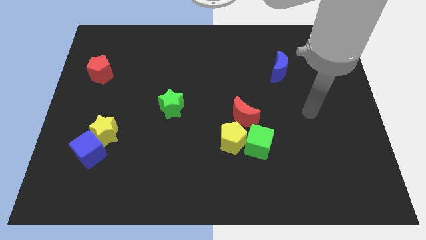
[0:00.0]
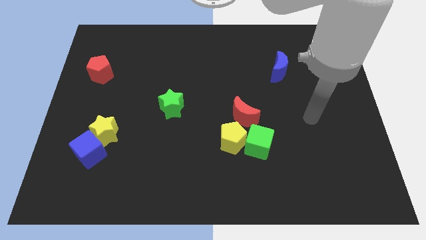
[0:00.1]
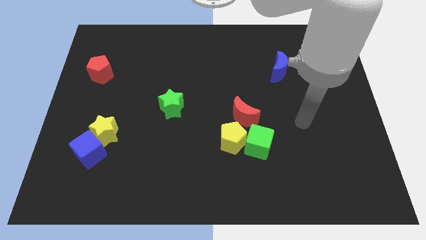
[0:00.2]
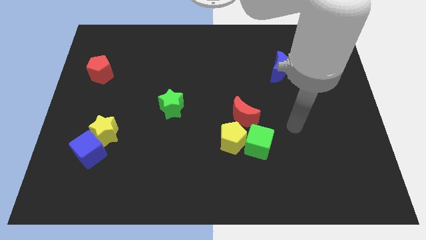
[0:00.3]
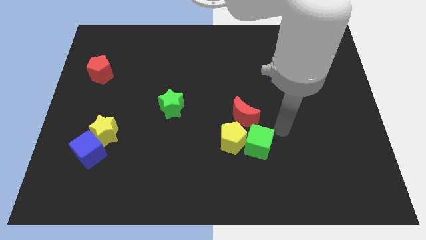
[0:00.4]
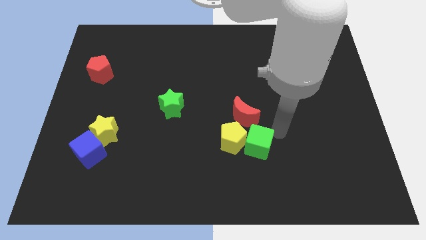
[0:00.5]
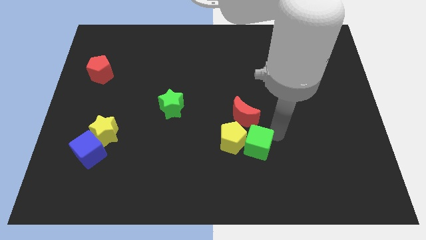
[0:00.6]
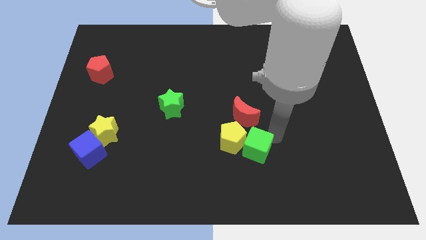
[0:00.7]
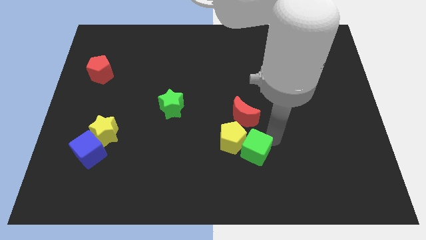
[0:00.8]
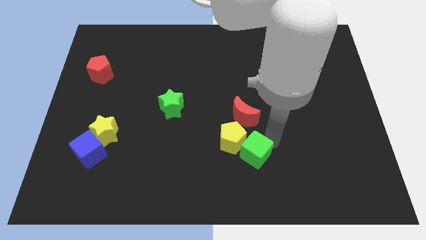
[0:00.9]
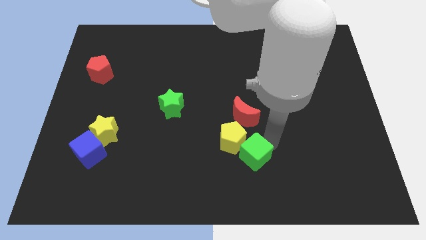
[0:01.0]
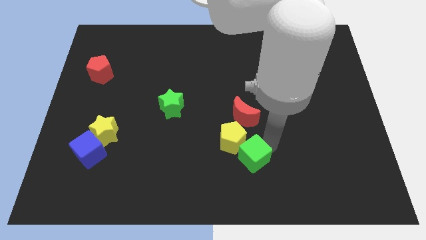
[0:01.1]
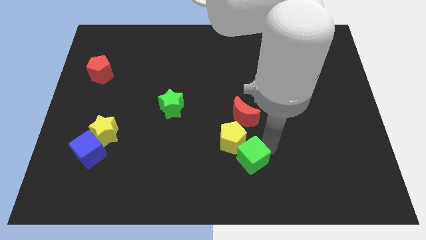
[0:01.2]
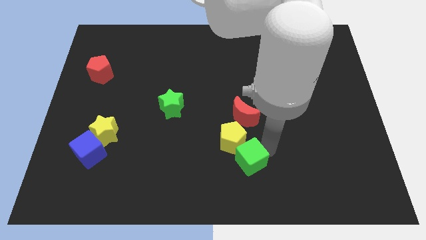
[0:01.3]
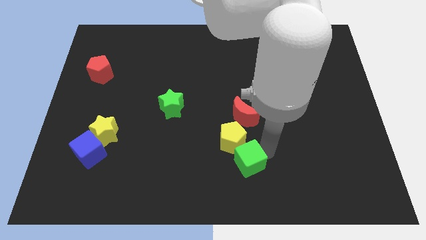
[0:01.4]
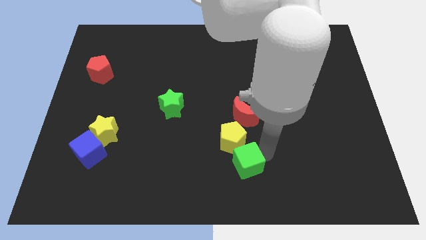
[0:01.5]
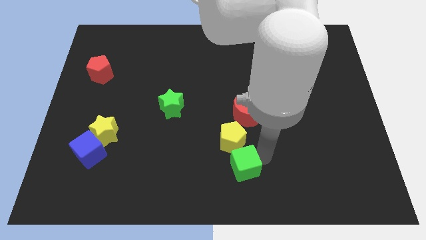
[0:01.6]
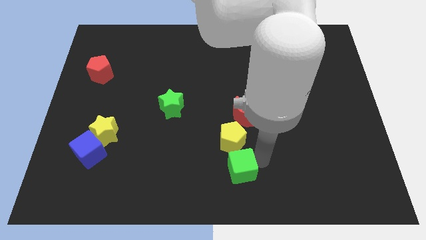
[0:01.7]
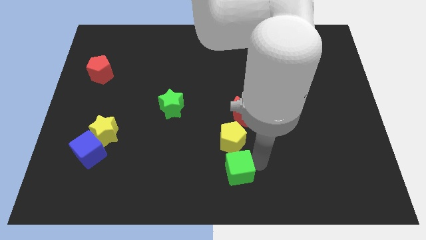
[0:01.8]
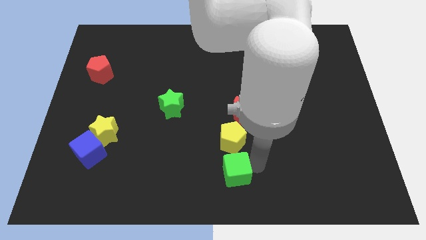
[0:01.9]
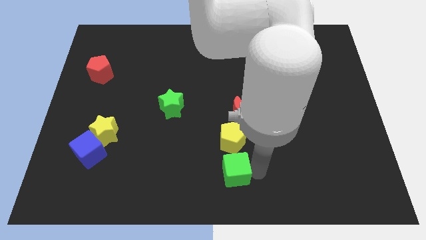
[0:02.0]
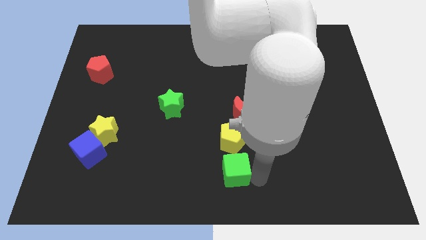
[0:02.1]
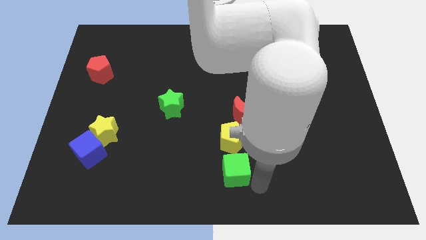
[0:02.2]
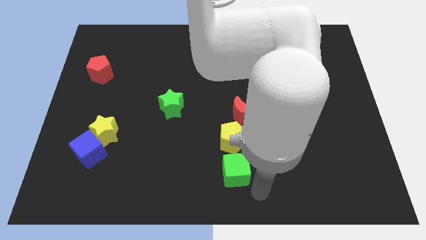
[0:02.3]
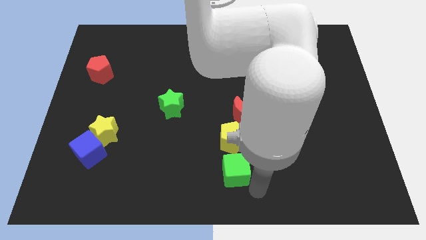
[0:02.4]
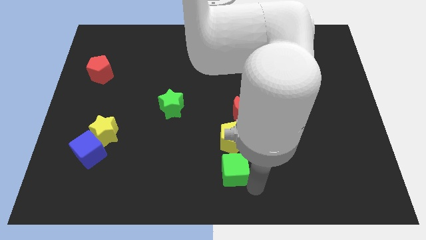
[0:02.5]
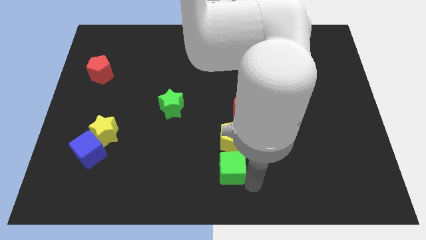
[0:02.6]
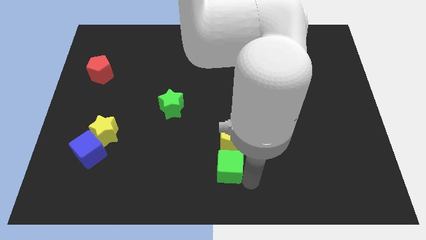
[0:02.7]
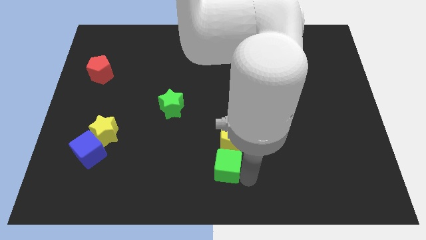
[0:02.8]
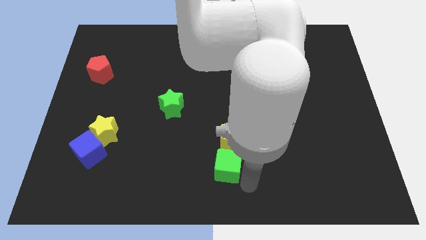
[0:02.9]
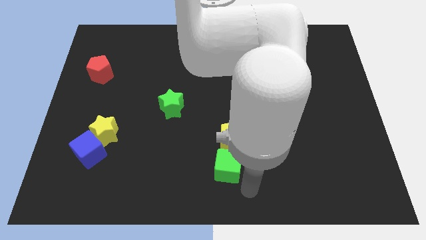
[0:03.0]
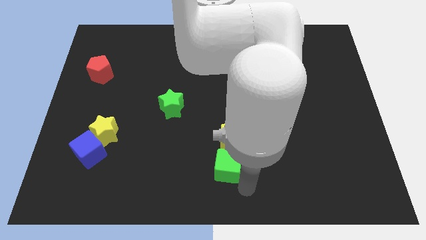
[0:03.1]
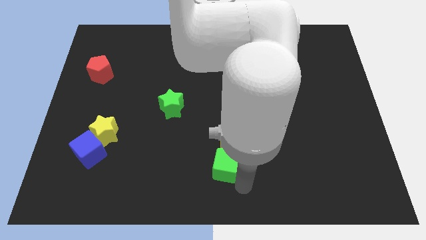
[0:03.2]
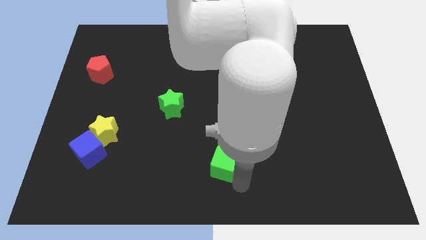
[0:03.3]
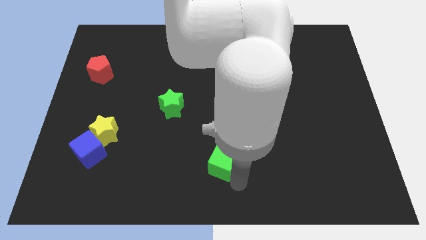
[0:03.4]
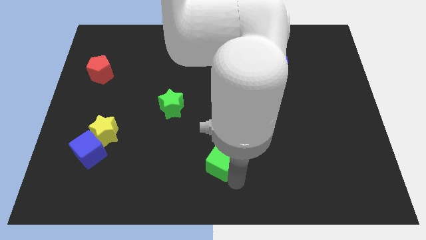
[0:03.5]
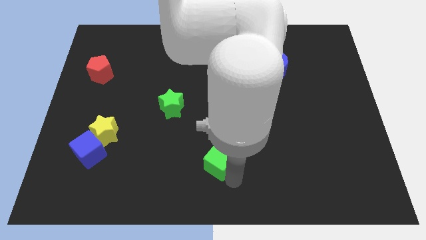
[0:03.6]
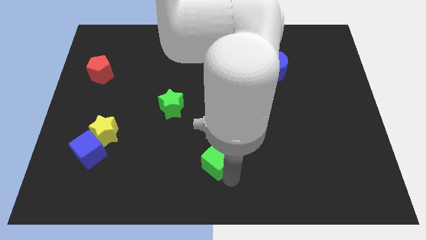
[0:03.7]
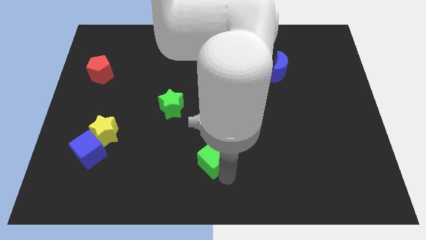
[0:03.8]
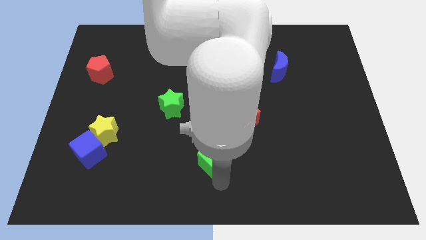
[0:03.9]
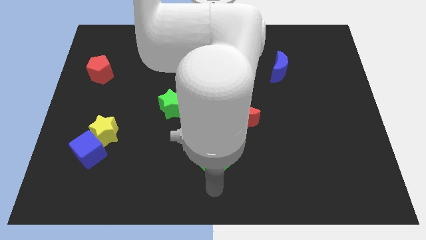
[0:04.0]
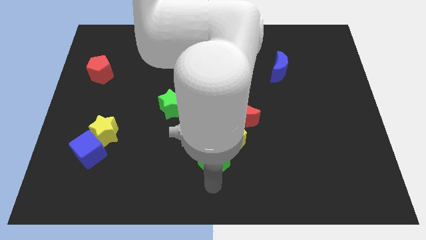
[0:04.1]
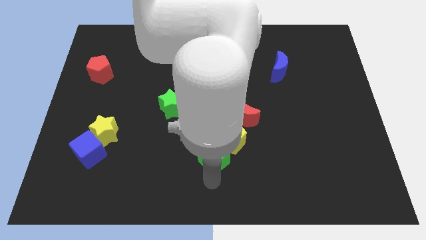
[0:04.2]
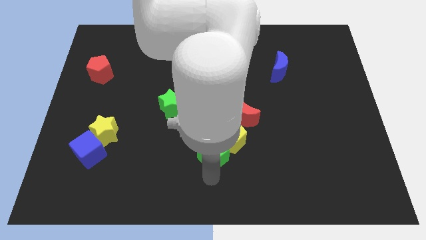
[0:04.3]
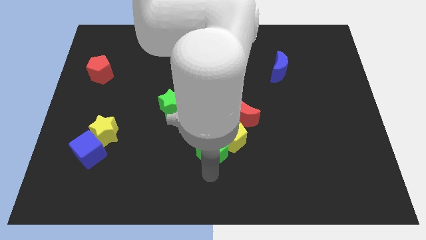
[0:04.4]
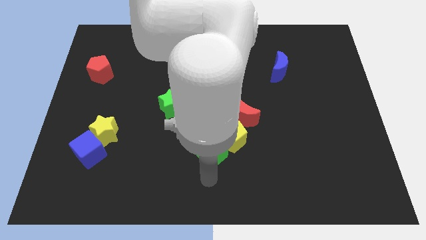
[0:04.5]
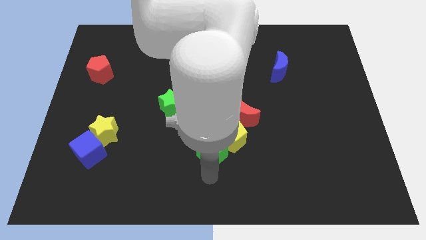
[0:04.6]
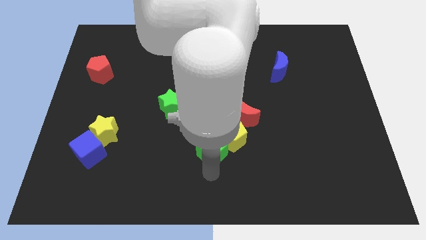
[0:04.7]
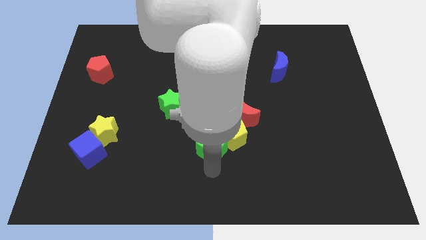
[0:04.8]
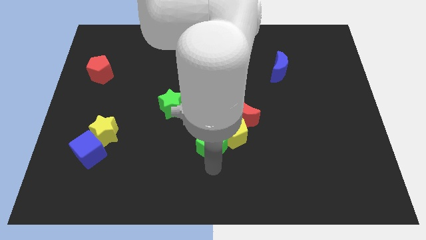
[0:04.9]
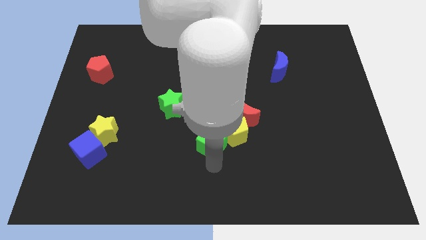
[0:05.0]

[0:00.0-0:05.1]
slide the green cube to the center of the board

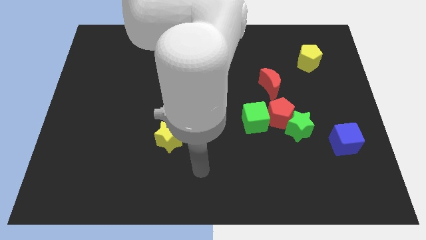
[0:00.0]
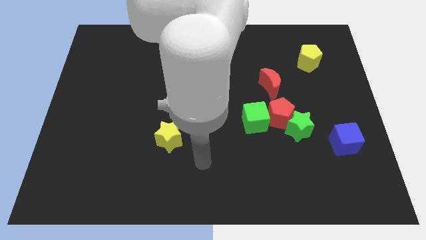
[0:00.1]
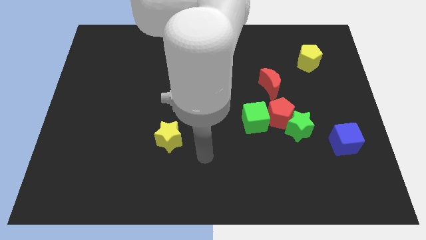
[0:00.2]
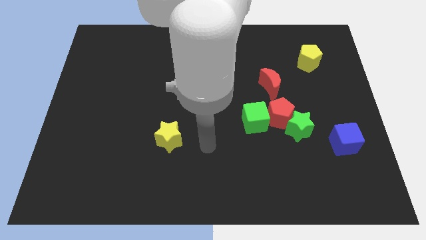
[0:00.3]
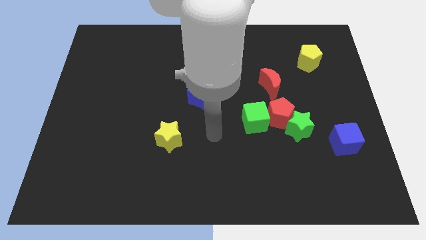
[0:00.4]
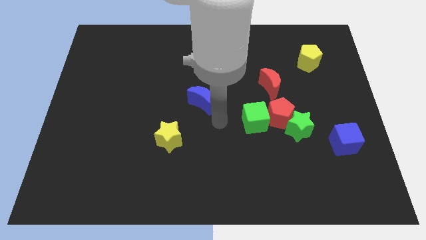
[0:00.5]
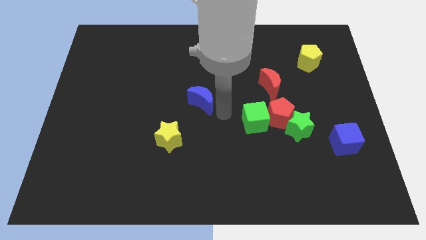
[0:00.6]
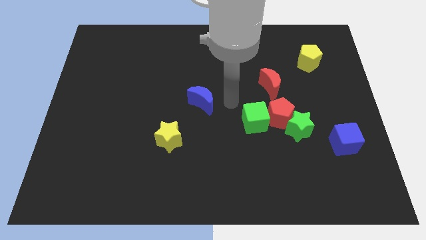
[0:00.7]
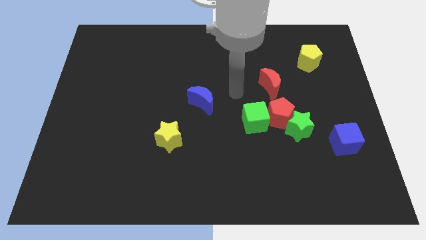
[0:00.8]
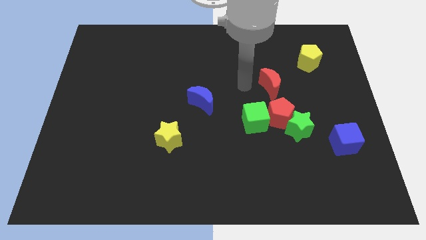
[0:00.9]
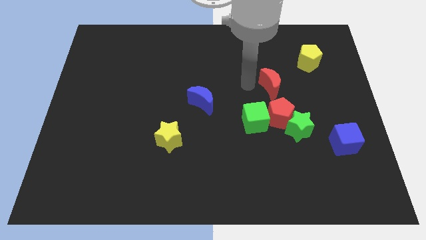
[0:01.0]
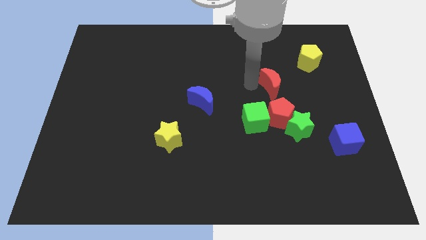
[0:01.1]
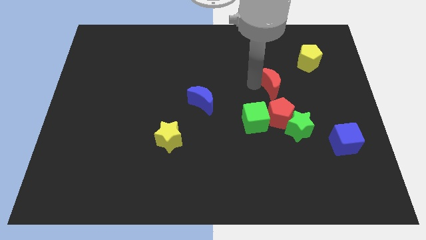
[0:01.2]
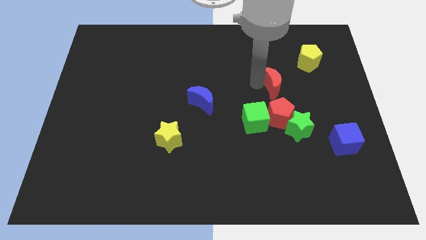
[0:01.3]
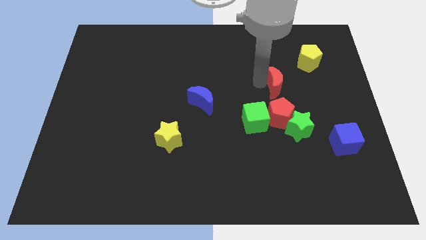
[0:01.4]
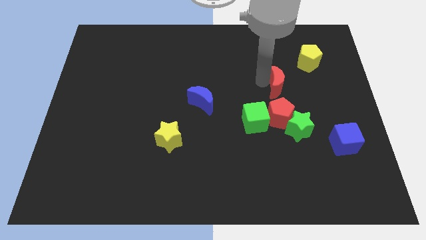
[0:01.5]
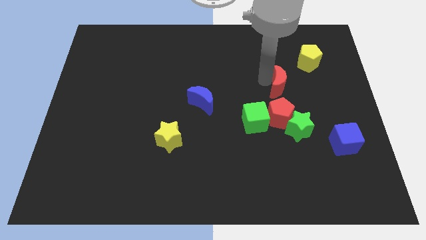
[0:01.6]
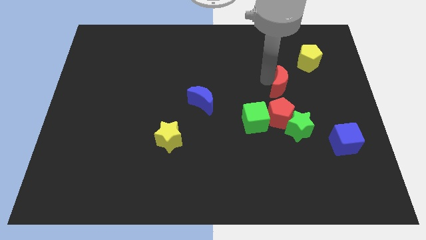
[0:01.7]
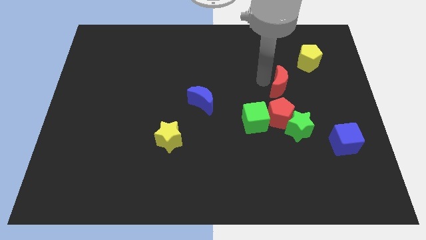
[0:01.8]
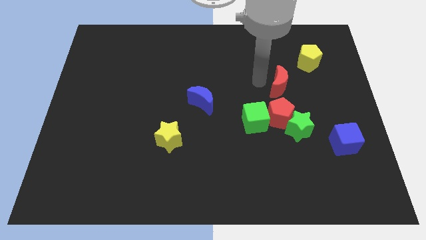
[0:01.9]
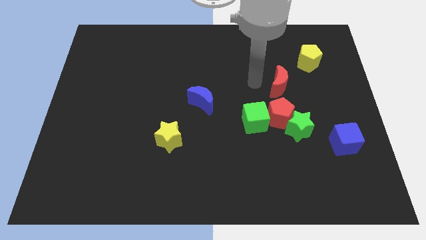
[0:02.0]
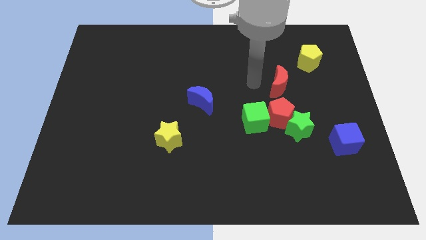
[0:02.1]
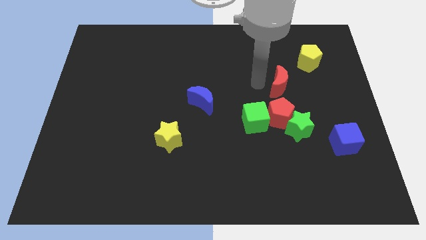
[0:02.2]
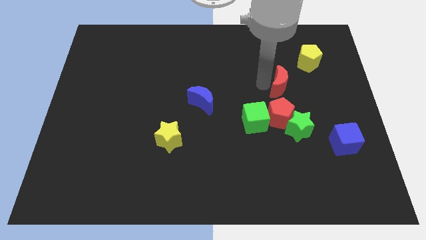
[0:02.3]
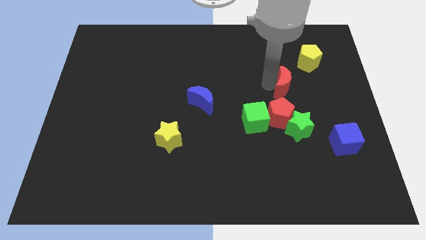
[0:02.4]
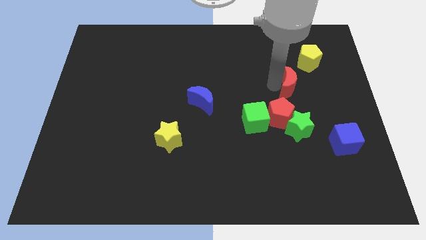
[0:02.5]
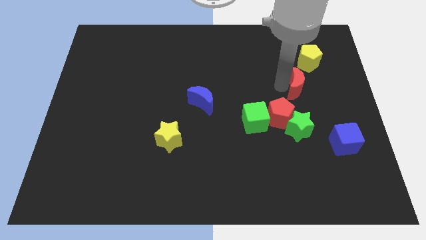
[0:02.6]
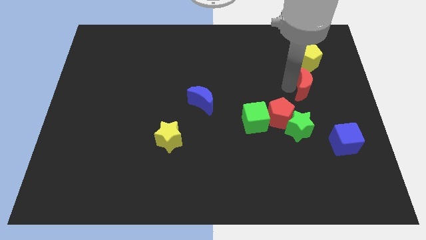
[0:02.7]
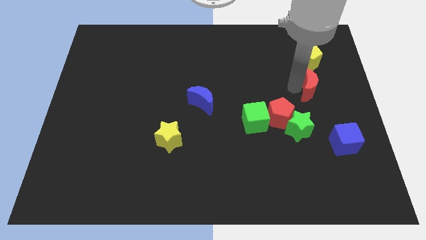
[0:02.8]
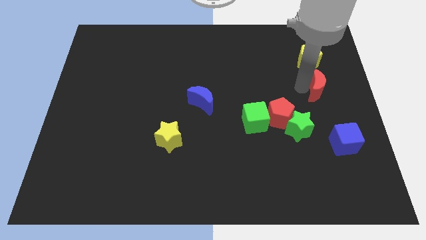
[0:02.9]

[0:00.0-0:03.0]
slide the red moon to the right side
